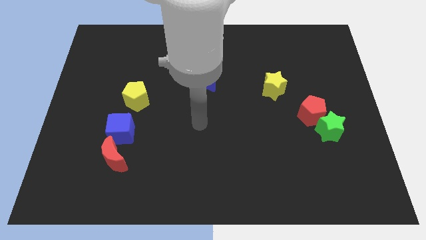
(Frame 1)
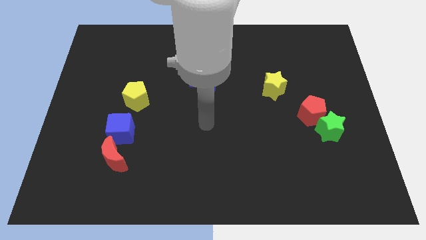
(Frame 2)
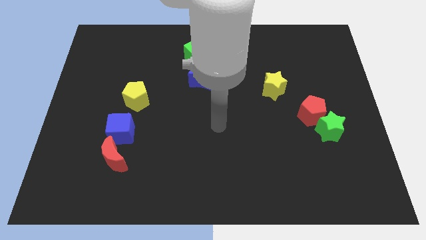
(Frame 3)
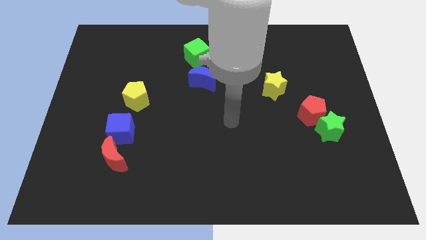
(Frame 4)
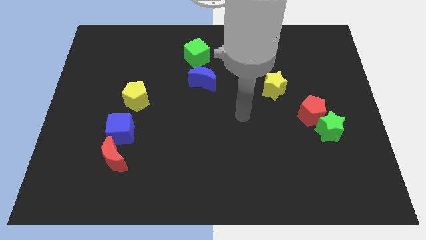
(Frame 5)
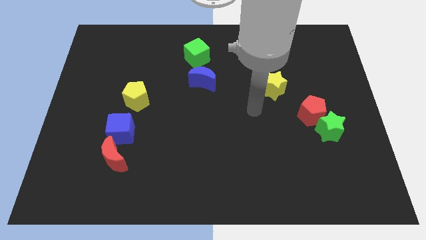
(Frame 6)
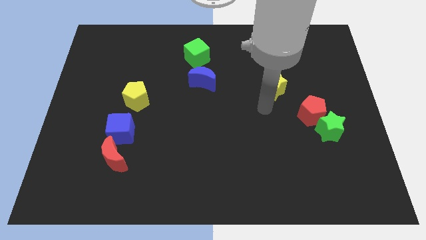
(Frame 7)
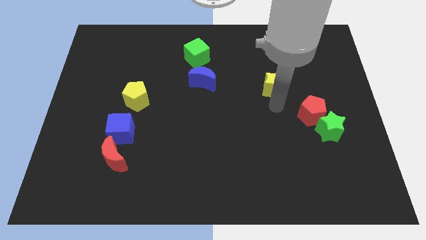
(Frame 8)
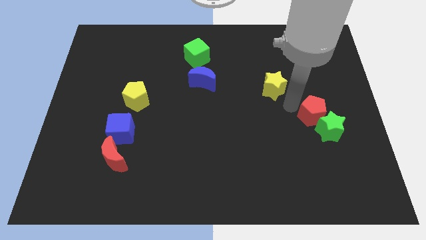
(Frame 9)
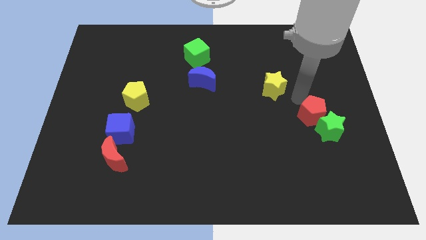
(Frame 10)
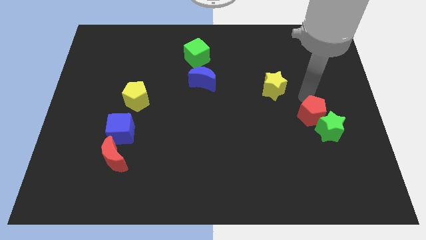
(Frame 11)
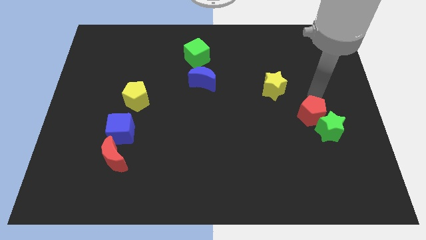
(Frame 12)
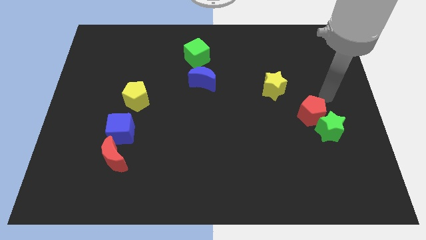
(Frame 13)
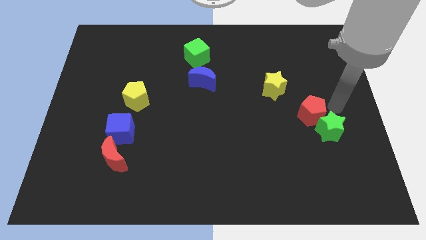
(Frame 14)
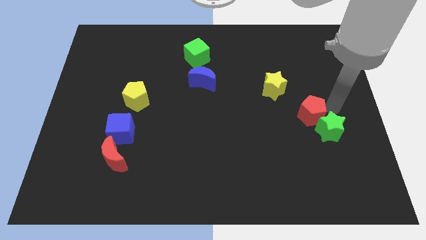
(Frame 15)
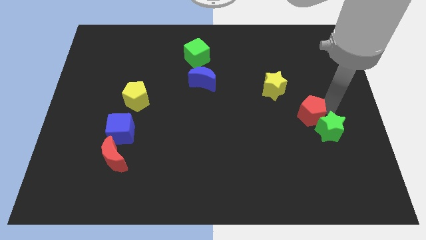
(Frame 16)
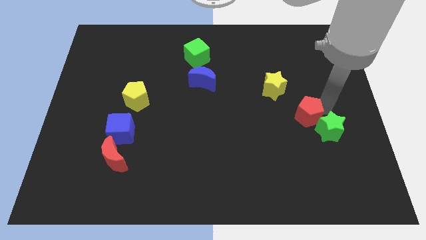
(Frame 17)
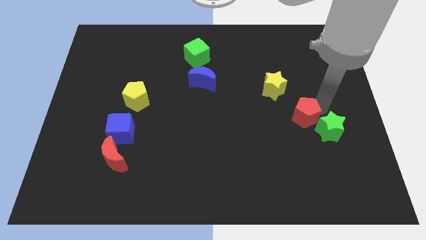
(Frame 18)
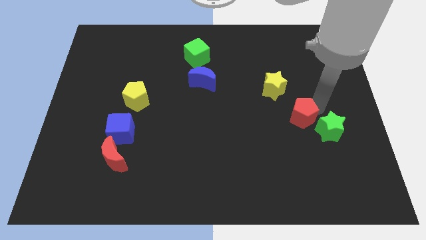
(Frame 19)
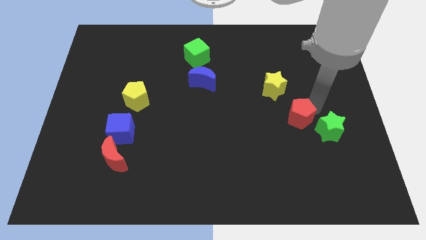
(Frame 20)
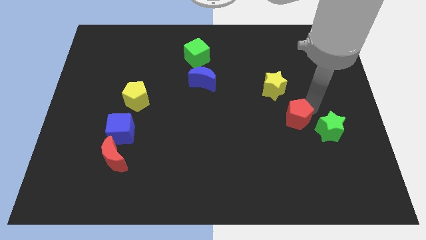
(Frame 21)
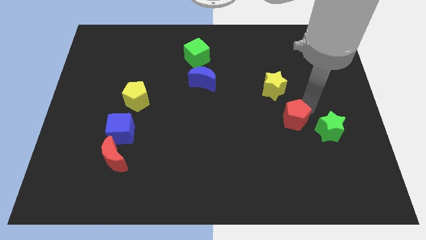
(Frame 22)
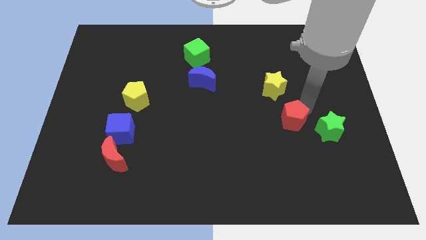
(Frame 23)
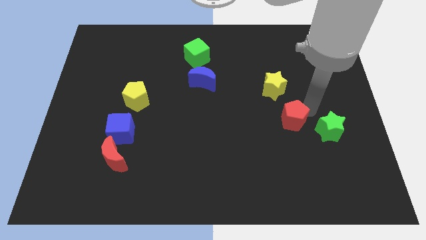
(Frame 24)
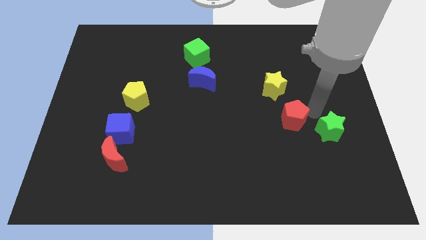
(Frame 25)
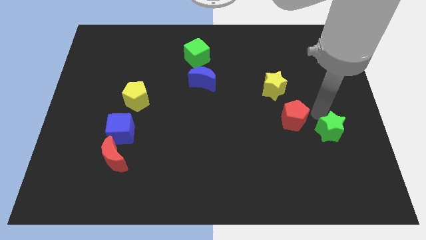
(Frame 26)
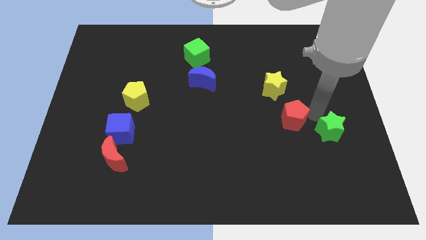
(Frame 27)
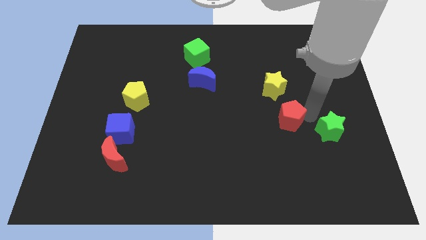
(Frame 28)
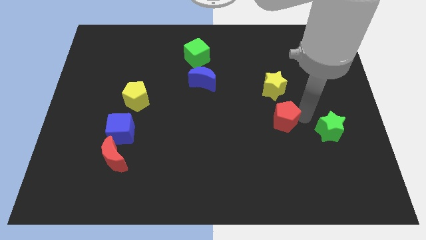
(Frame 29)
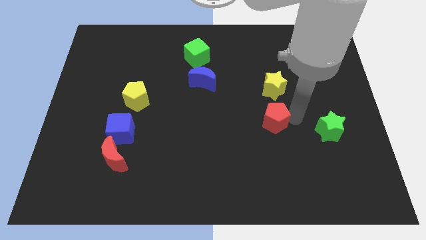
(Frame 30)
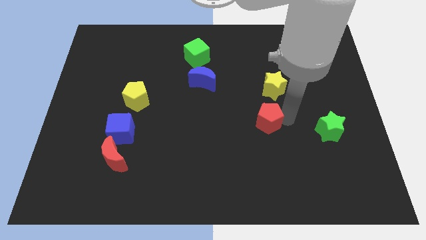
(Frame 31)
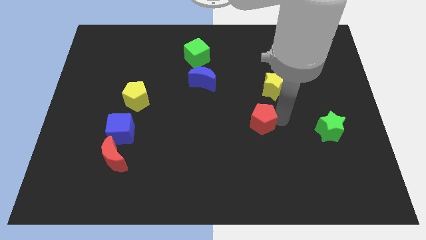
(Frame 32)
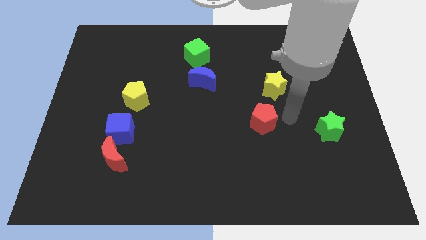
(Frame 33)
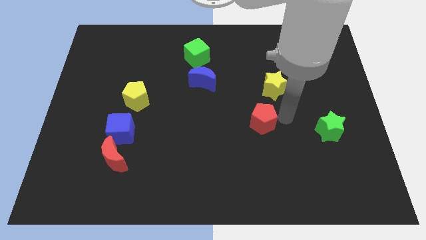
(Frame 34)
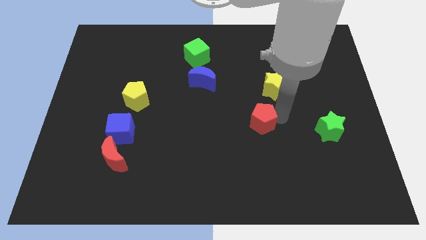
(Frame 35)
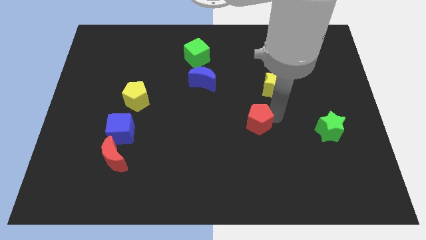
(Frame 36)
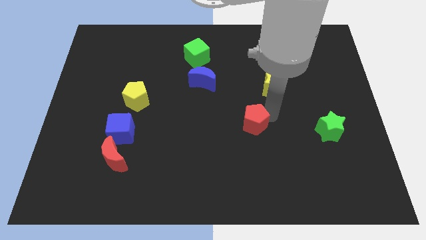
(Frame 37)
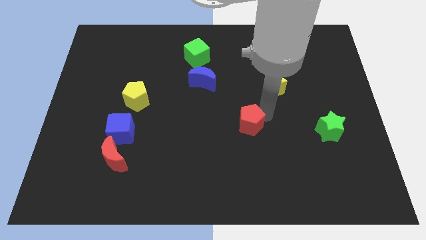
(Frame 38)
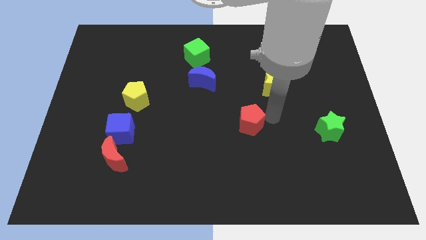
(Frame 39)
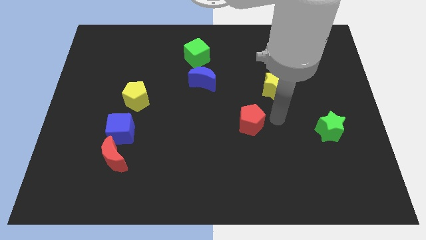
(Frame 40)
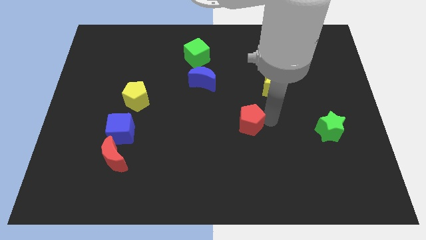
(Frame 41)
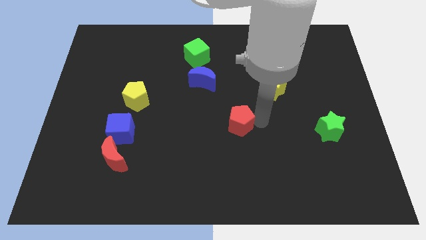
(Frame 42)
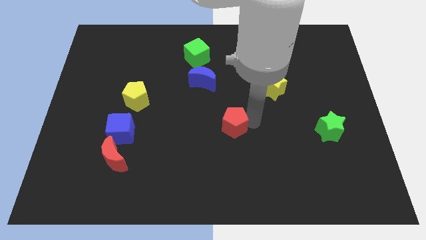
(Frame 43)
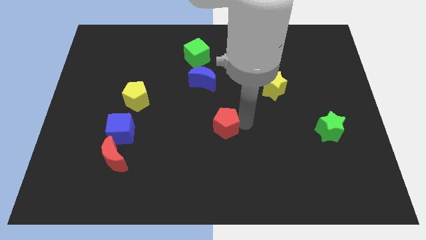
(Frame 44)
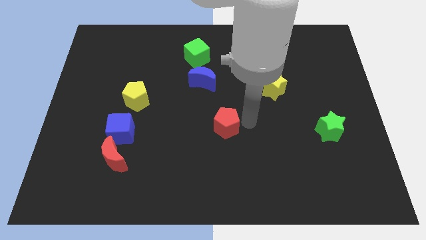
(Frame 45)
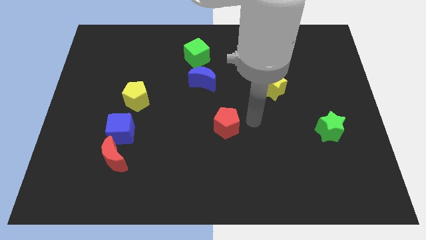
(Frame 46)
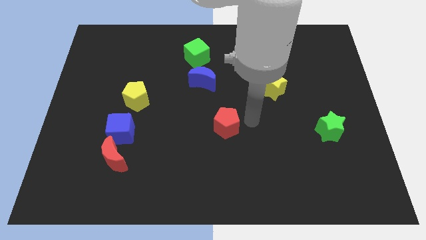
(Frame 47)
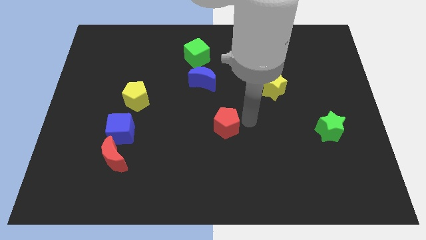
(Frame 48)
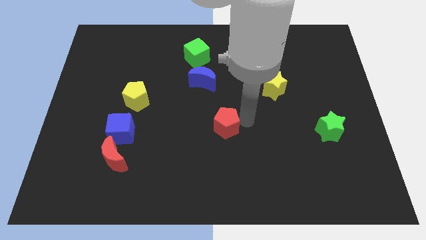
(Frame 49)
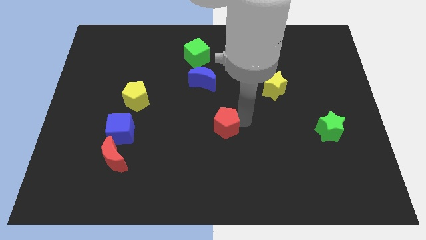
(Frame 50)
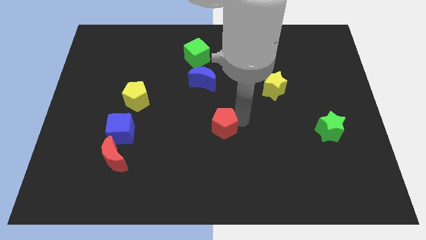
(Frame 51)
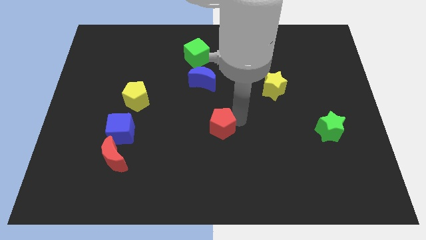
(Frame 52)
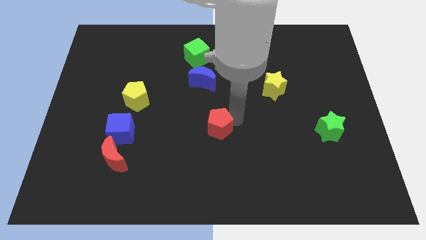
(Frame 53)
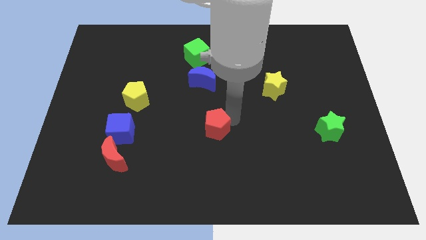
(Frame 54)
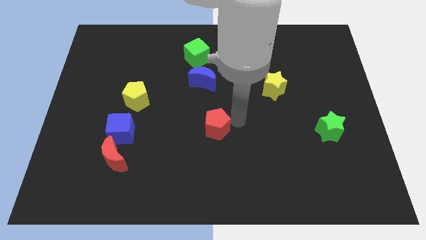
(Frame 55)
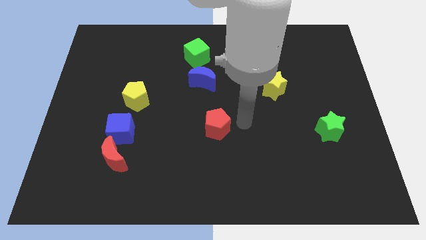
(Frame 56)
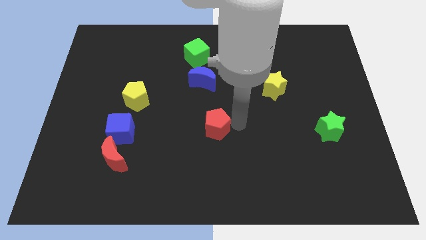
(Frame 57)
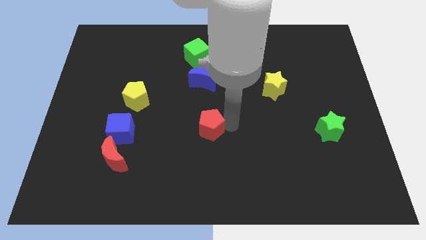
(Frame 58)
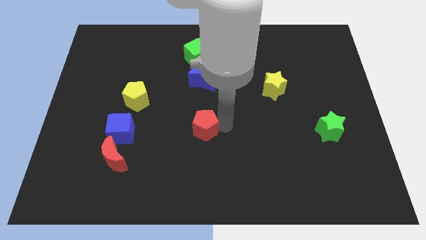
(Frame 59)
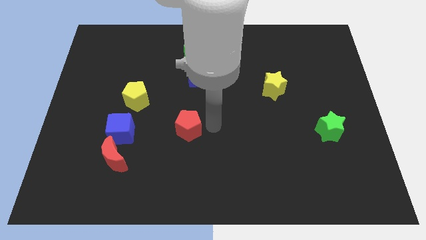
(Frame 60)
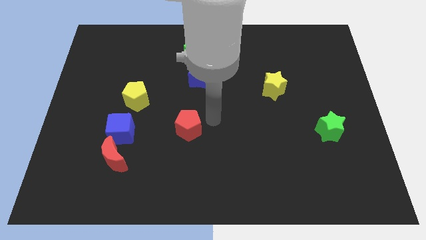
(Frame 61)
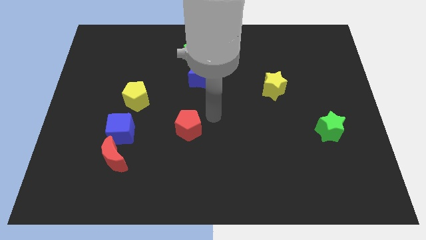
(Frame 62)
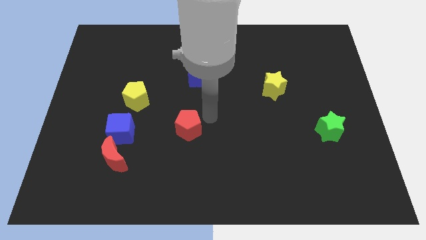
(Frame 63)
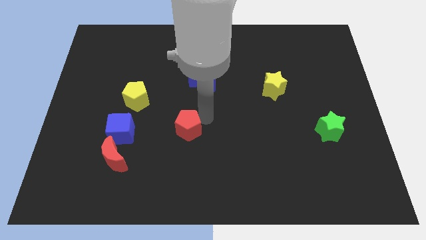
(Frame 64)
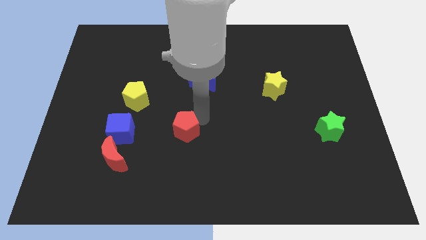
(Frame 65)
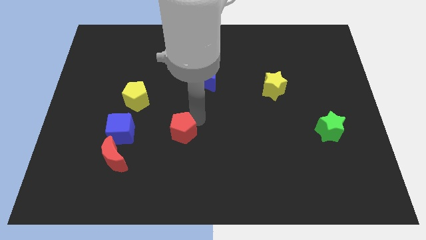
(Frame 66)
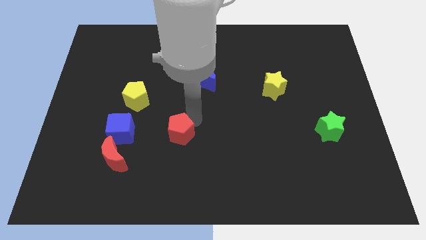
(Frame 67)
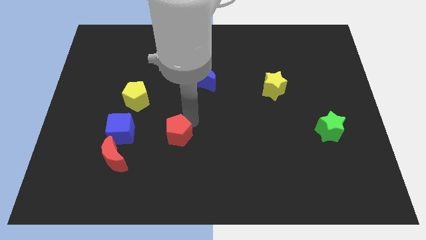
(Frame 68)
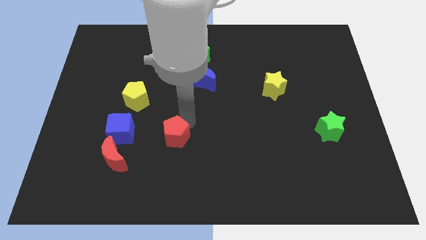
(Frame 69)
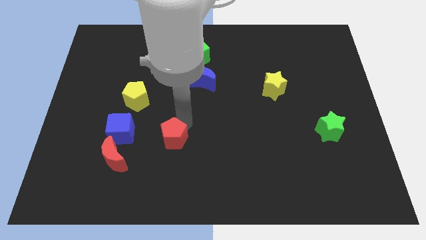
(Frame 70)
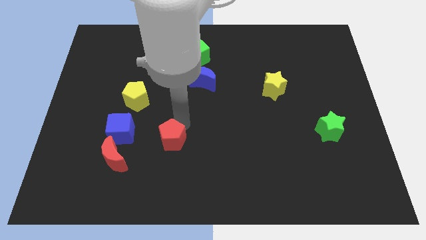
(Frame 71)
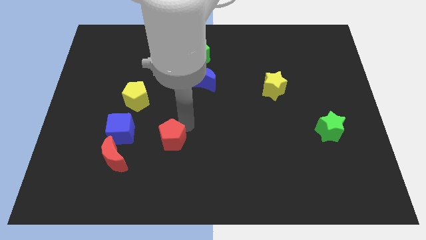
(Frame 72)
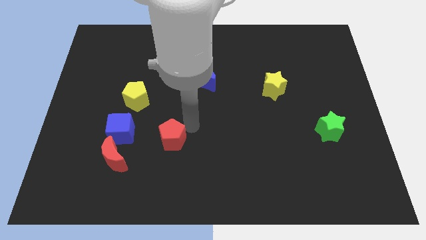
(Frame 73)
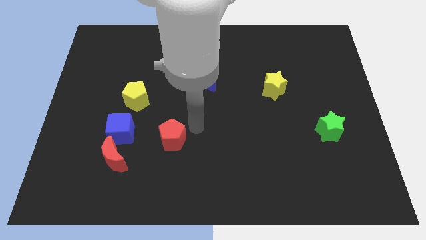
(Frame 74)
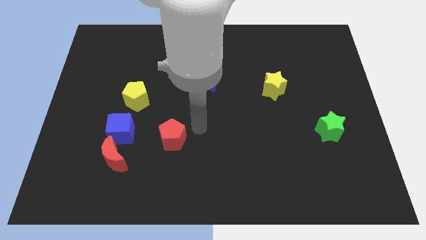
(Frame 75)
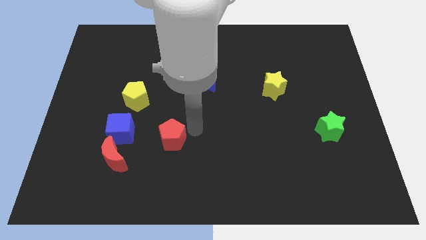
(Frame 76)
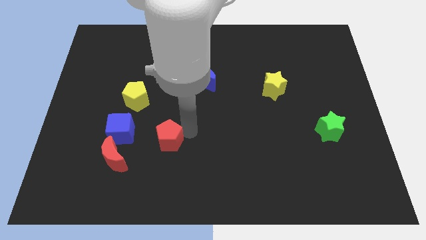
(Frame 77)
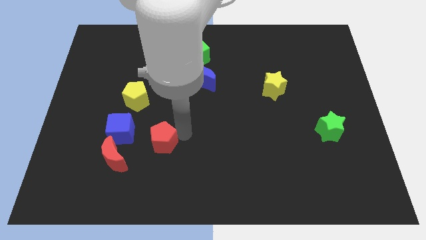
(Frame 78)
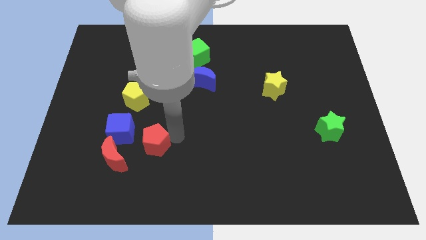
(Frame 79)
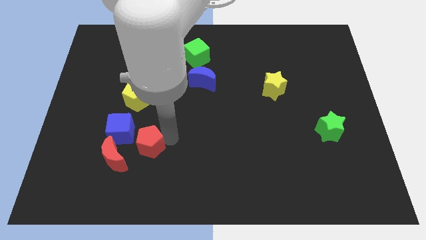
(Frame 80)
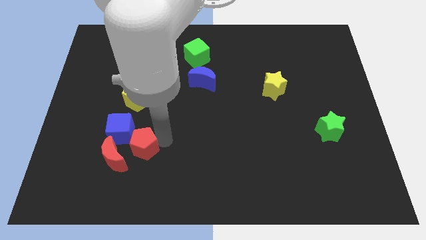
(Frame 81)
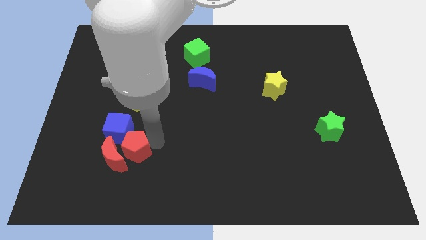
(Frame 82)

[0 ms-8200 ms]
push the red pentagon to the red moon
